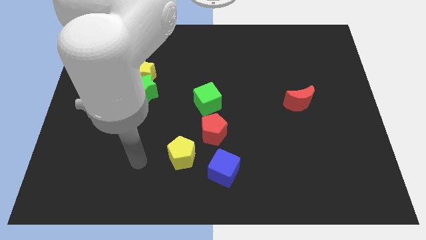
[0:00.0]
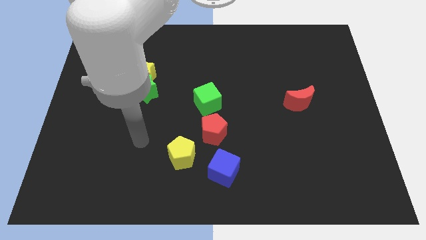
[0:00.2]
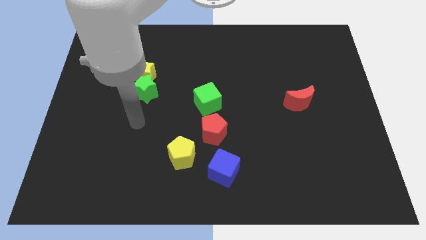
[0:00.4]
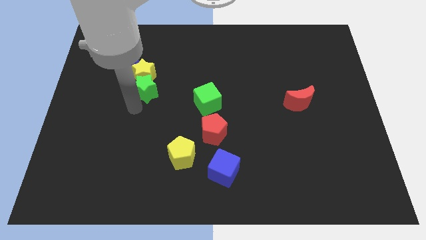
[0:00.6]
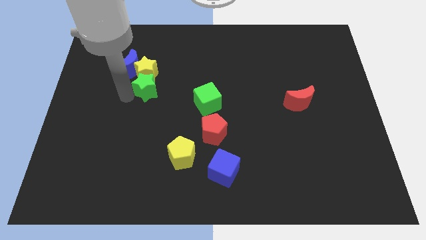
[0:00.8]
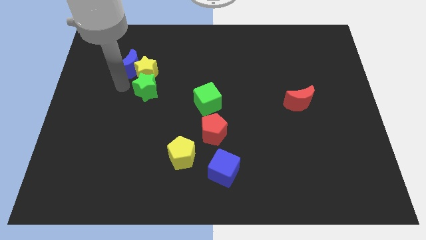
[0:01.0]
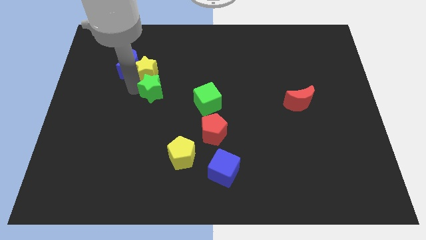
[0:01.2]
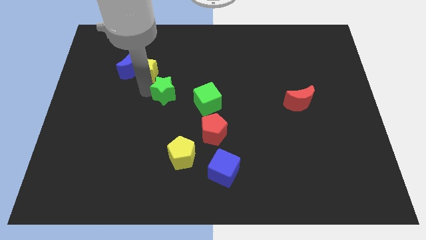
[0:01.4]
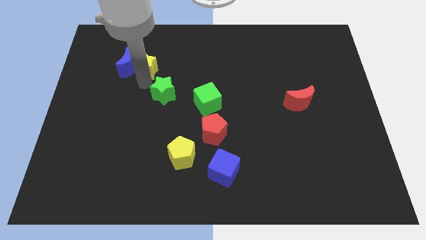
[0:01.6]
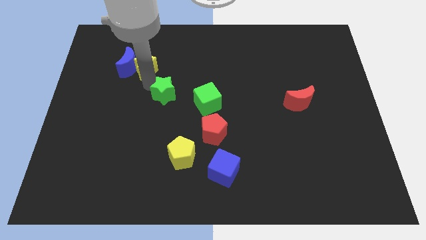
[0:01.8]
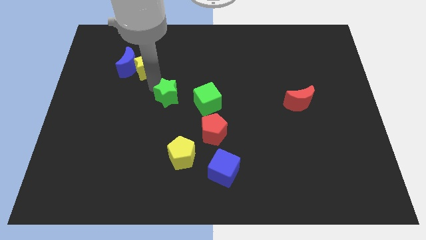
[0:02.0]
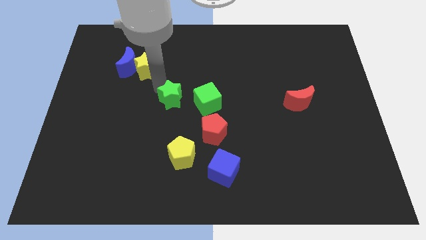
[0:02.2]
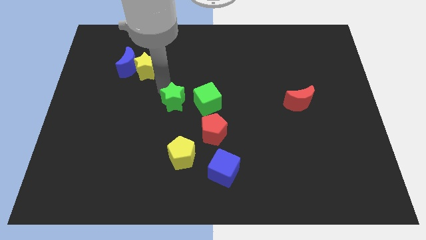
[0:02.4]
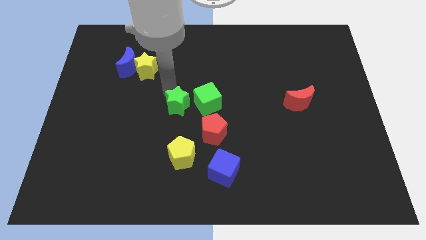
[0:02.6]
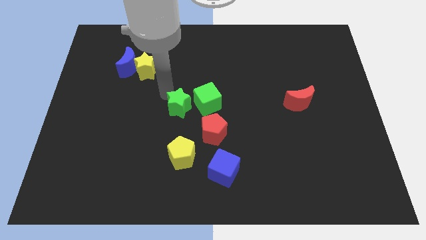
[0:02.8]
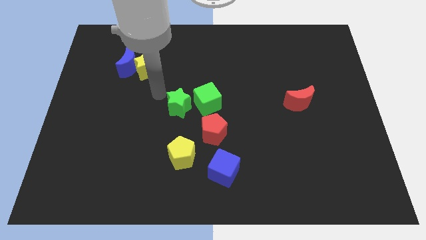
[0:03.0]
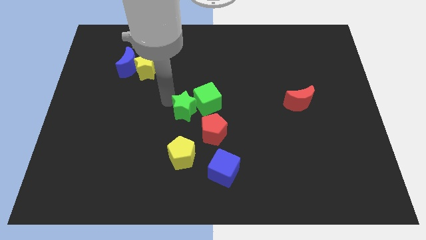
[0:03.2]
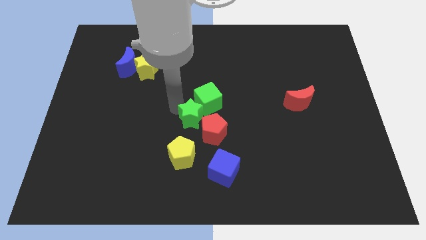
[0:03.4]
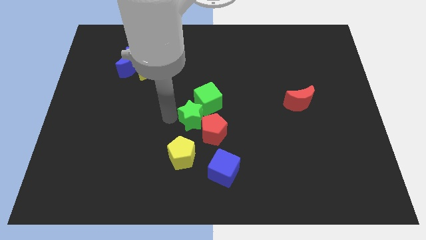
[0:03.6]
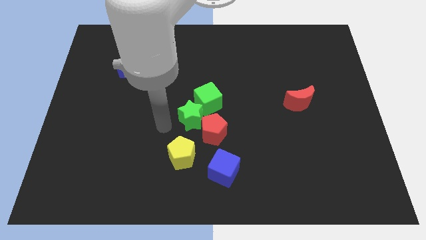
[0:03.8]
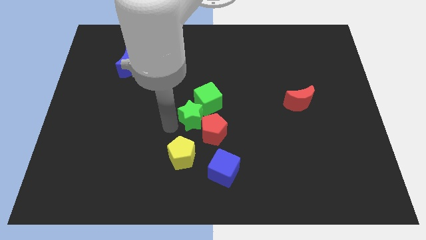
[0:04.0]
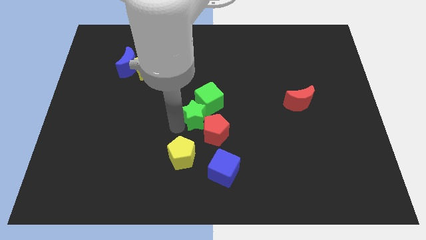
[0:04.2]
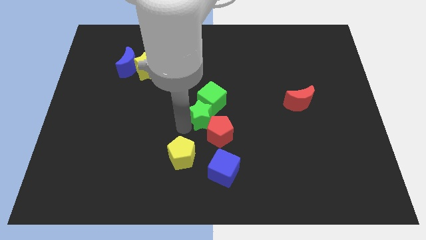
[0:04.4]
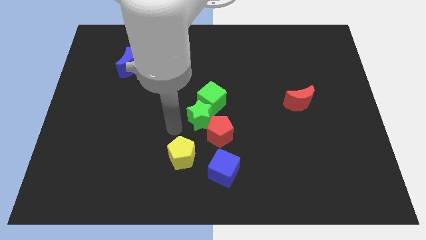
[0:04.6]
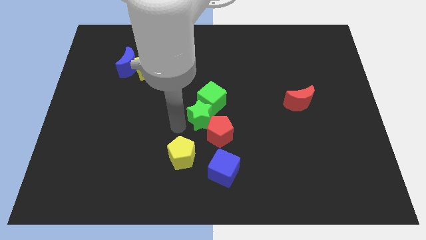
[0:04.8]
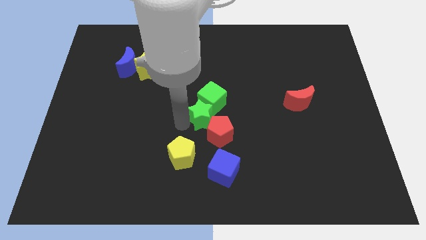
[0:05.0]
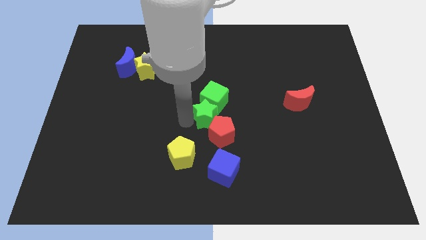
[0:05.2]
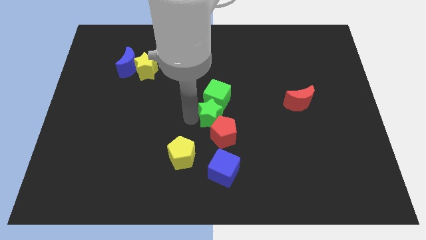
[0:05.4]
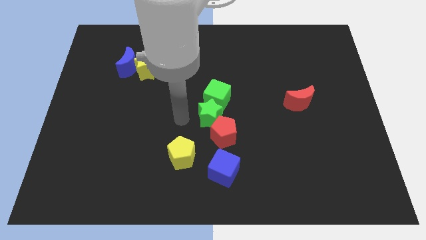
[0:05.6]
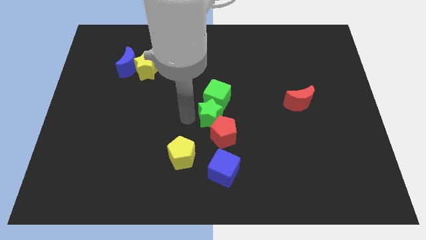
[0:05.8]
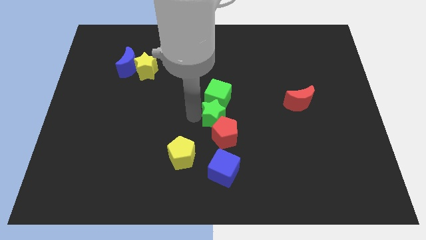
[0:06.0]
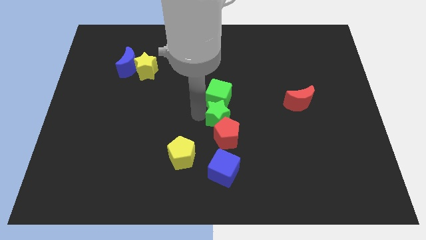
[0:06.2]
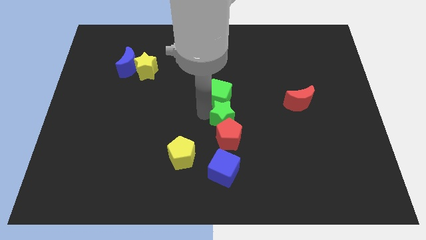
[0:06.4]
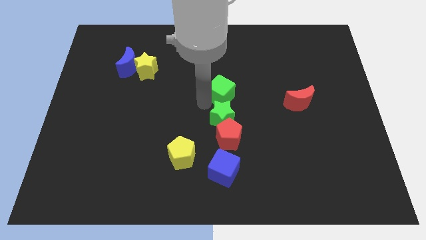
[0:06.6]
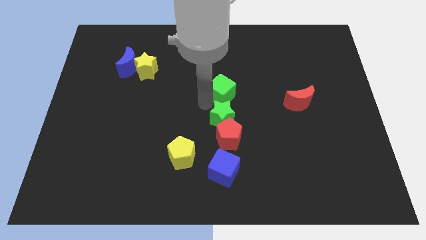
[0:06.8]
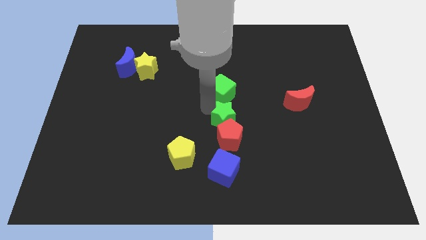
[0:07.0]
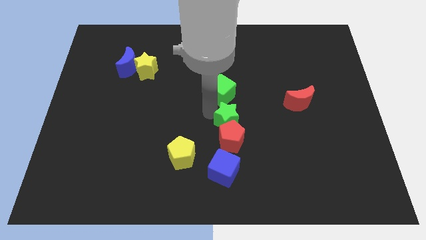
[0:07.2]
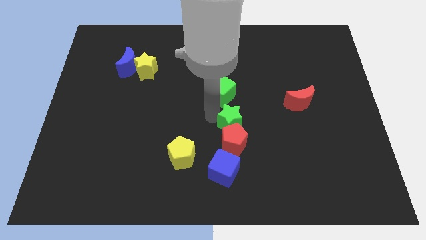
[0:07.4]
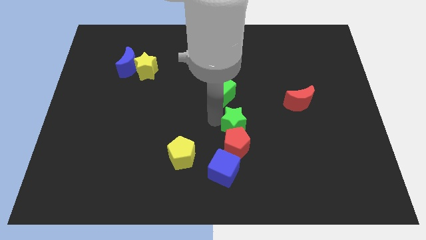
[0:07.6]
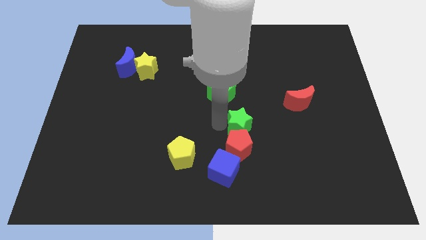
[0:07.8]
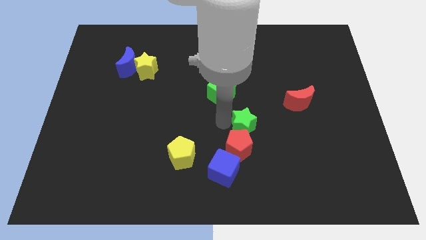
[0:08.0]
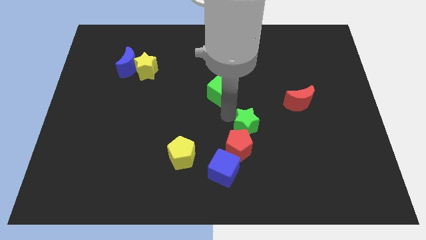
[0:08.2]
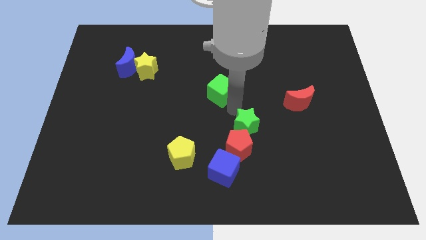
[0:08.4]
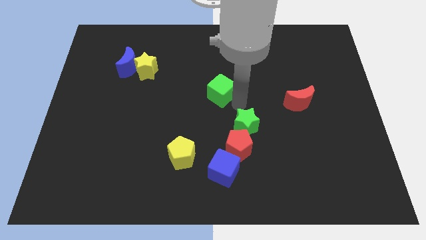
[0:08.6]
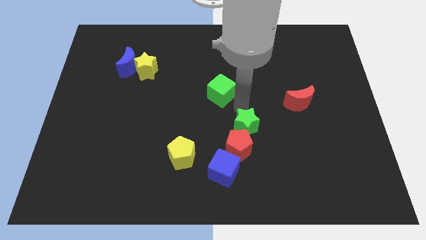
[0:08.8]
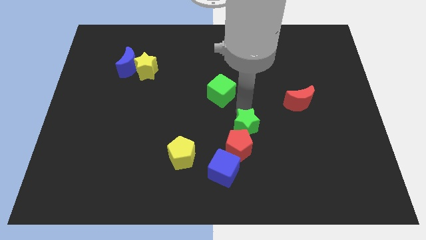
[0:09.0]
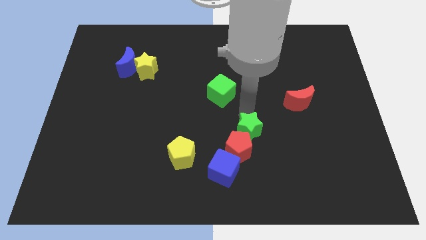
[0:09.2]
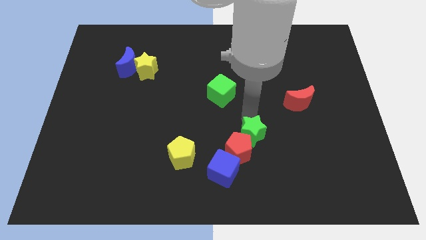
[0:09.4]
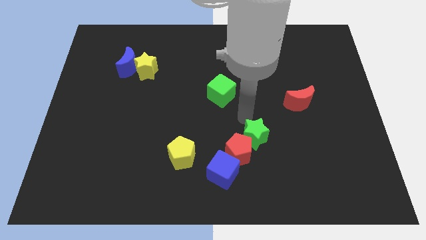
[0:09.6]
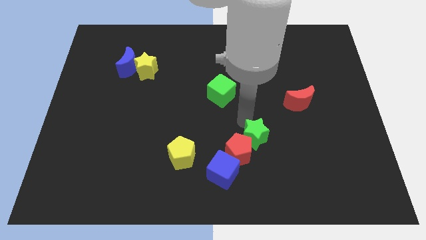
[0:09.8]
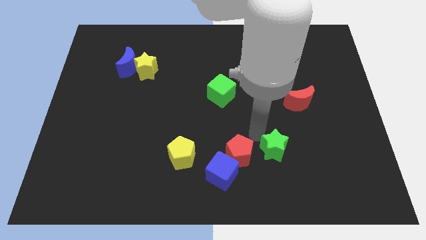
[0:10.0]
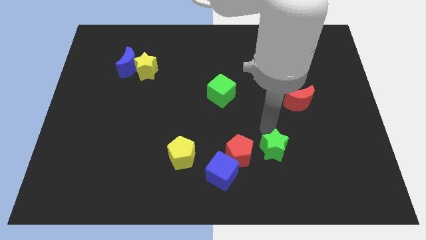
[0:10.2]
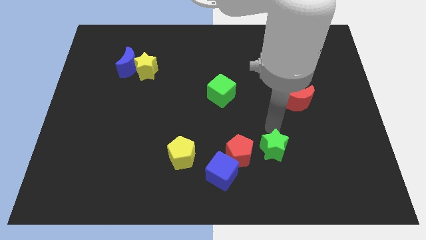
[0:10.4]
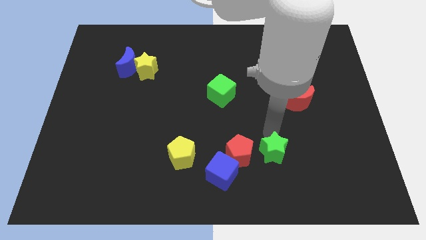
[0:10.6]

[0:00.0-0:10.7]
put the green star to the right side of the blue cube

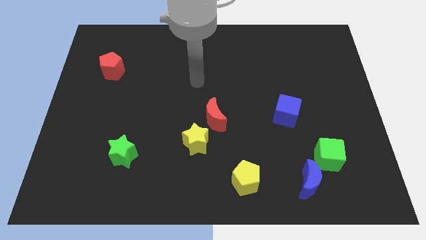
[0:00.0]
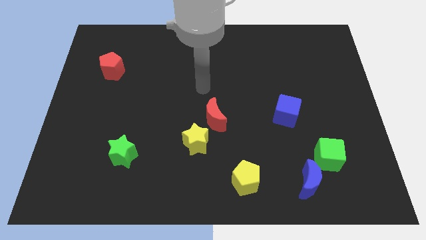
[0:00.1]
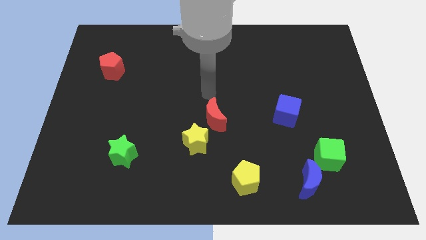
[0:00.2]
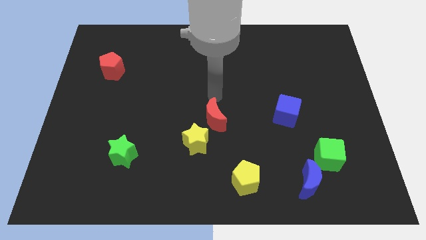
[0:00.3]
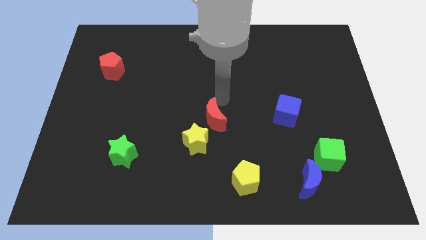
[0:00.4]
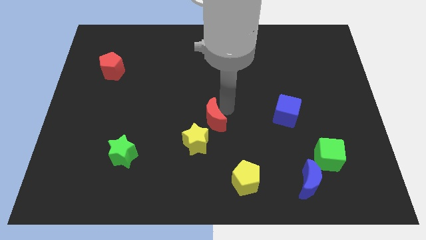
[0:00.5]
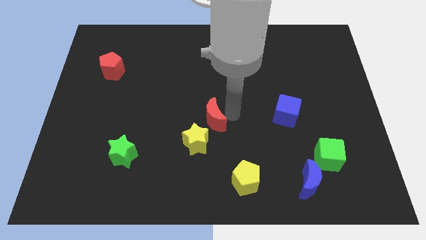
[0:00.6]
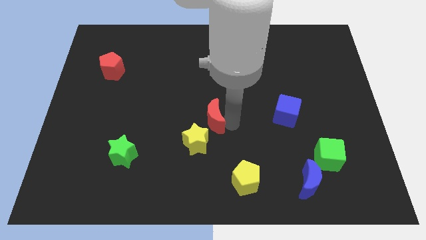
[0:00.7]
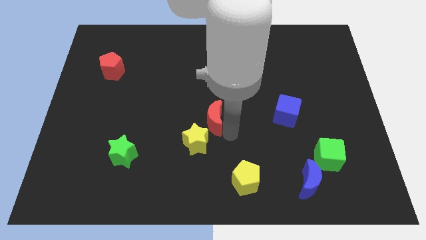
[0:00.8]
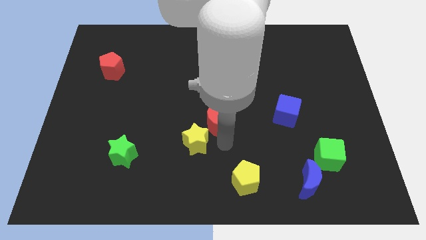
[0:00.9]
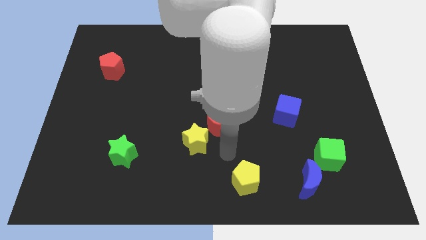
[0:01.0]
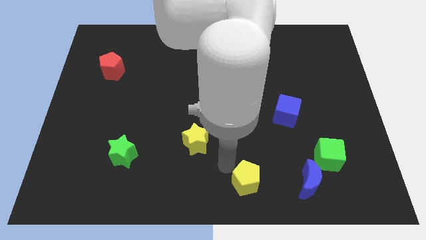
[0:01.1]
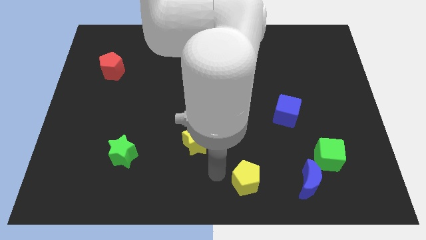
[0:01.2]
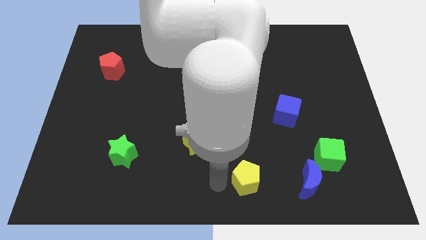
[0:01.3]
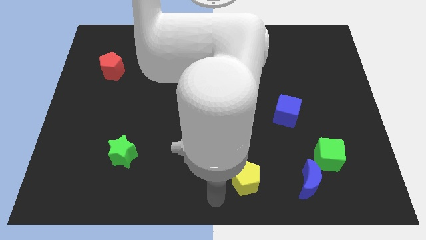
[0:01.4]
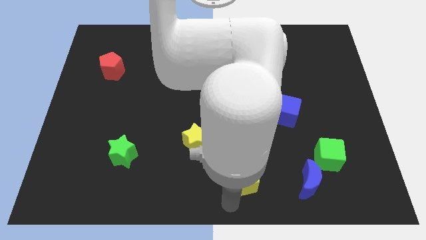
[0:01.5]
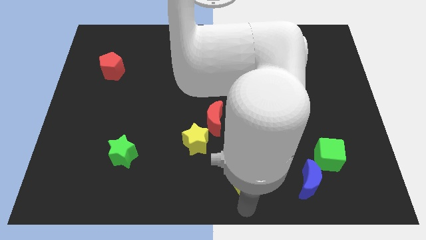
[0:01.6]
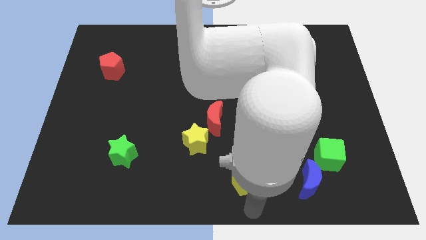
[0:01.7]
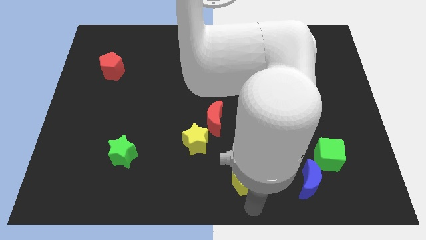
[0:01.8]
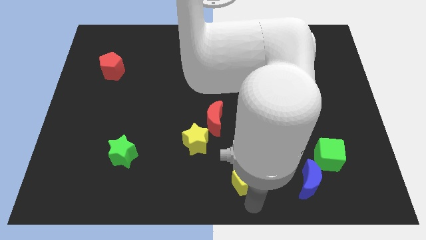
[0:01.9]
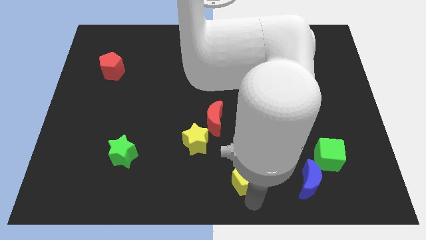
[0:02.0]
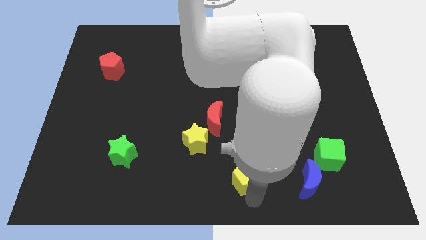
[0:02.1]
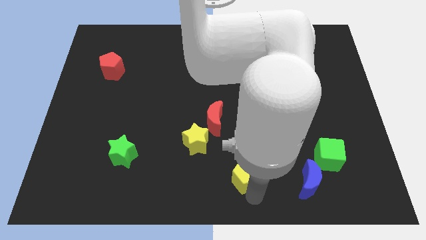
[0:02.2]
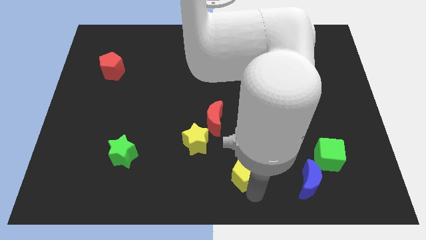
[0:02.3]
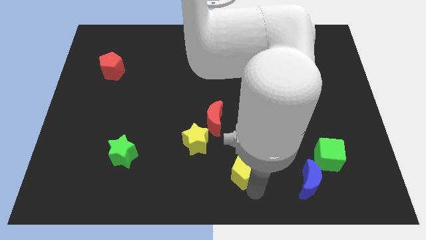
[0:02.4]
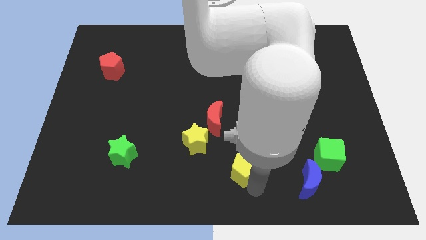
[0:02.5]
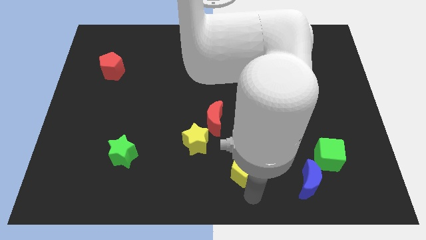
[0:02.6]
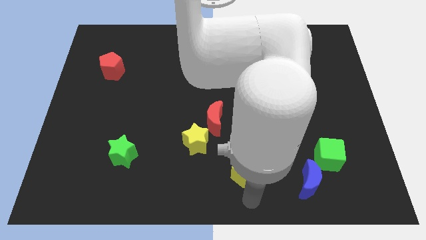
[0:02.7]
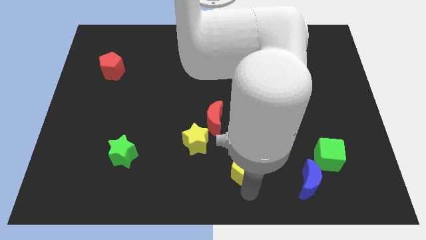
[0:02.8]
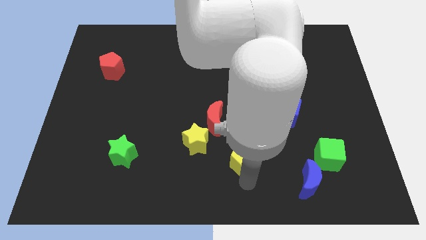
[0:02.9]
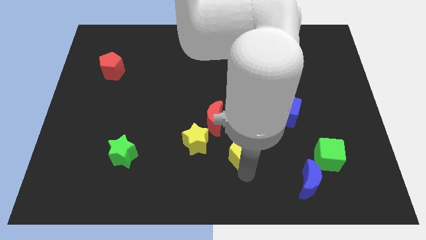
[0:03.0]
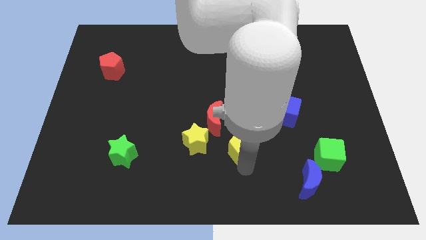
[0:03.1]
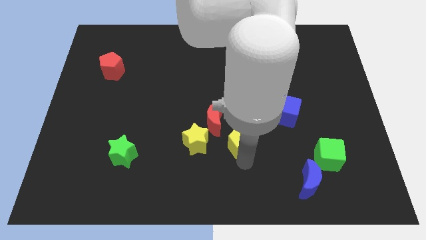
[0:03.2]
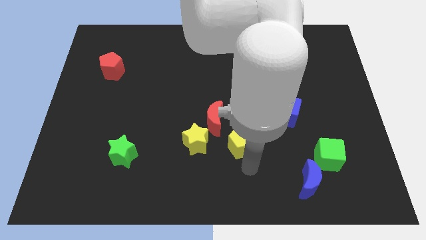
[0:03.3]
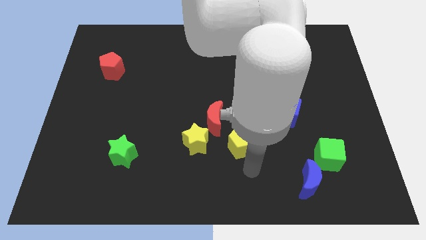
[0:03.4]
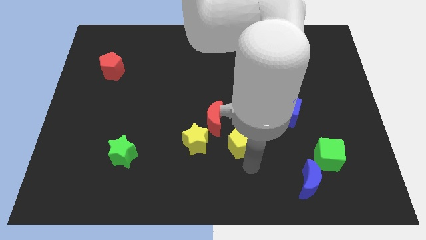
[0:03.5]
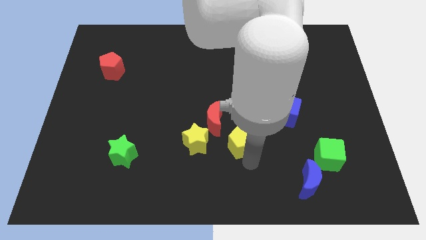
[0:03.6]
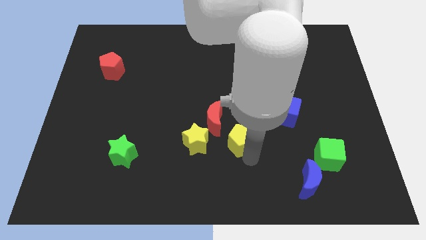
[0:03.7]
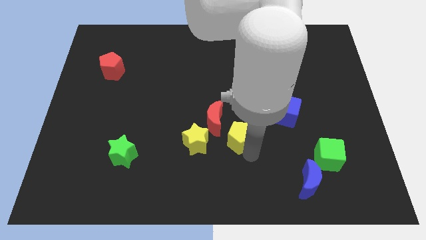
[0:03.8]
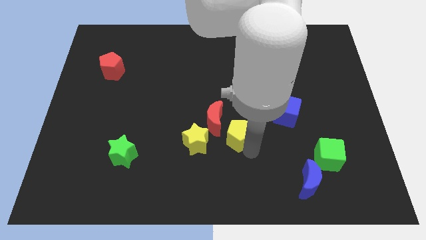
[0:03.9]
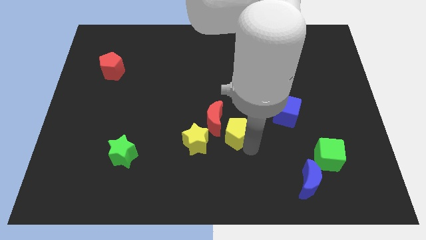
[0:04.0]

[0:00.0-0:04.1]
slide the yellow pentagon diagonally up and to the right of the yellow star
